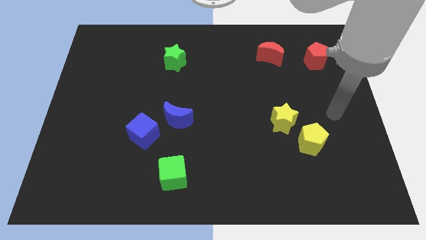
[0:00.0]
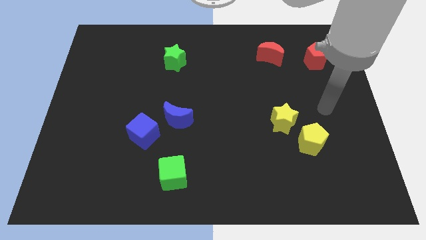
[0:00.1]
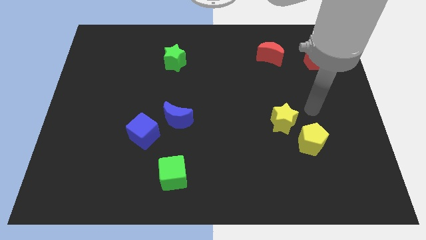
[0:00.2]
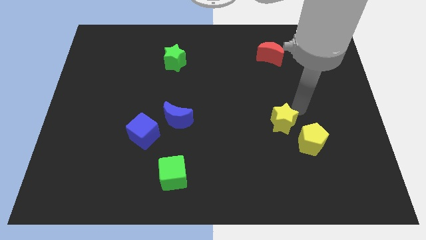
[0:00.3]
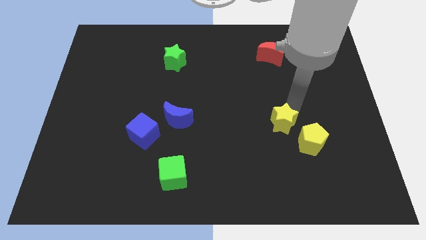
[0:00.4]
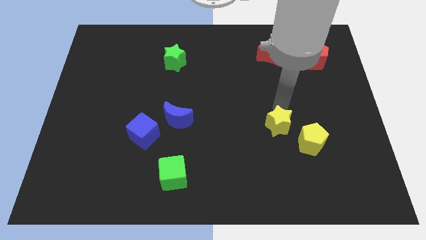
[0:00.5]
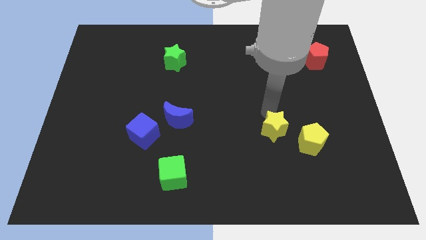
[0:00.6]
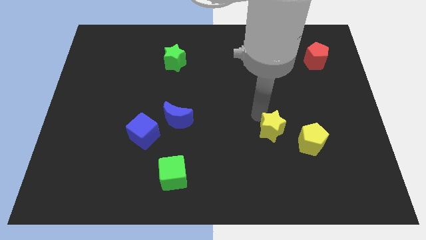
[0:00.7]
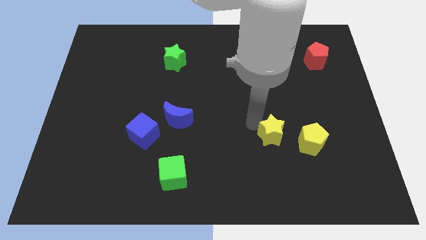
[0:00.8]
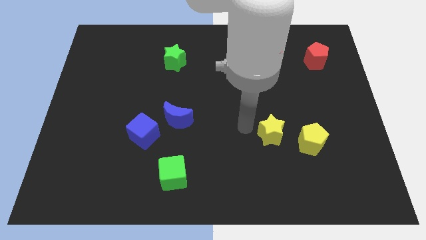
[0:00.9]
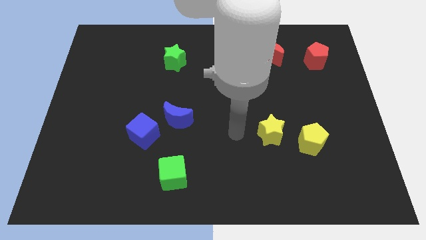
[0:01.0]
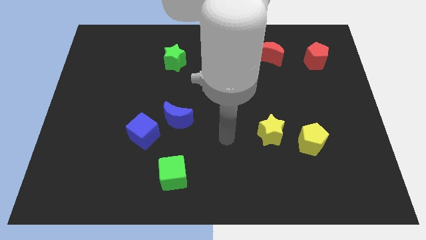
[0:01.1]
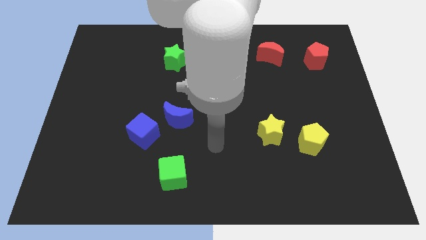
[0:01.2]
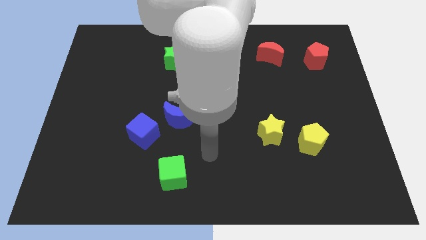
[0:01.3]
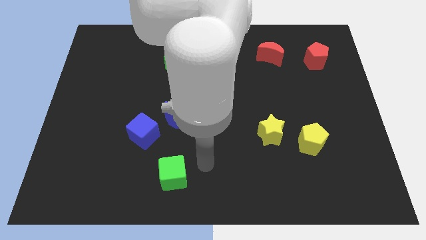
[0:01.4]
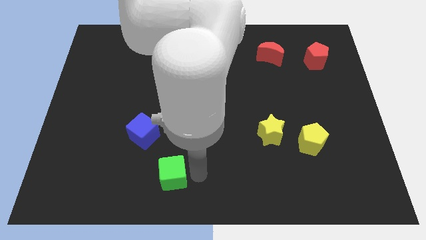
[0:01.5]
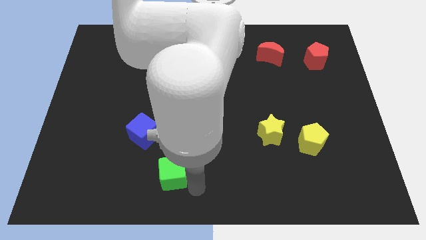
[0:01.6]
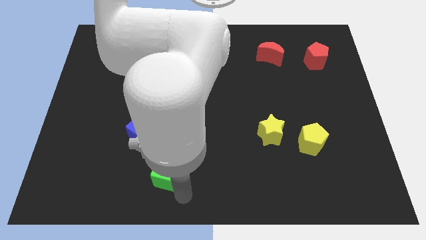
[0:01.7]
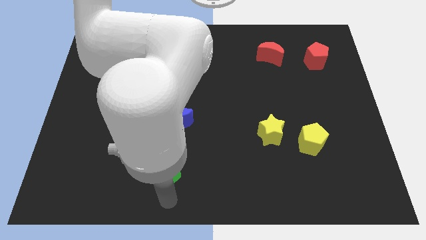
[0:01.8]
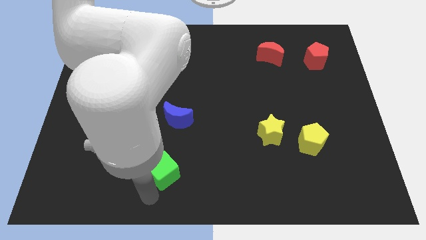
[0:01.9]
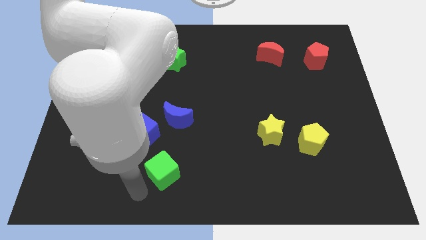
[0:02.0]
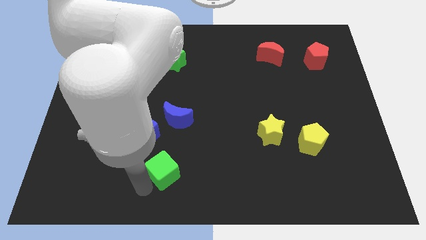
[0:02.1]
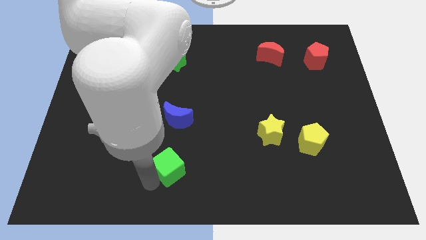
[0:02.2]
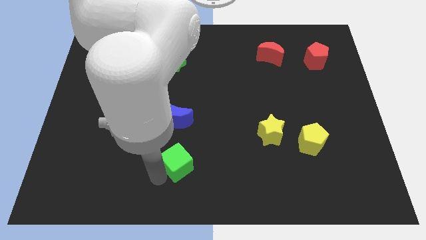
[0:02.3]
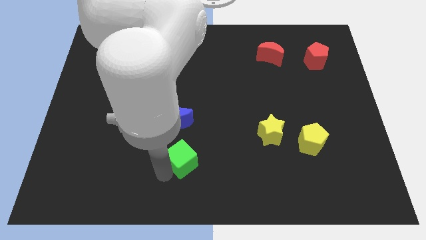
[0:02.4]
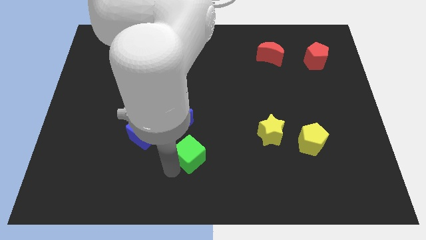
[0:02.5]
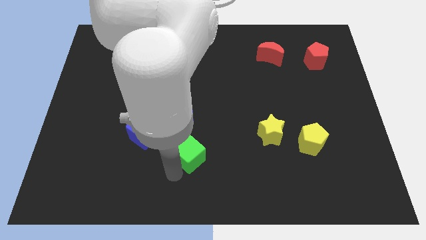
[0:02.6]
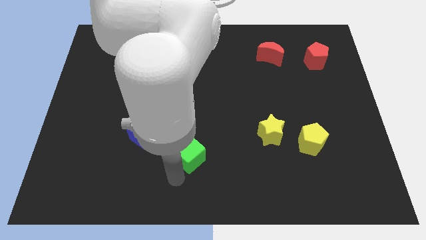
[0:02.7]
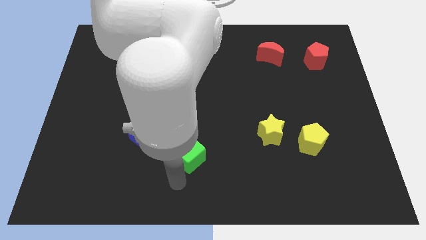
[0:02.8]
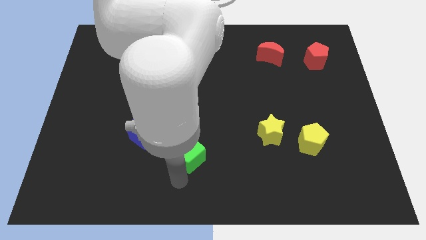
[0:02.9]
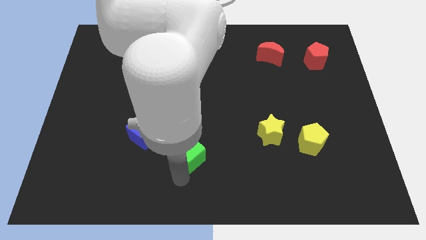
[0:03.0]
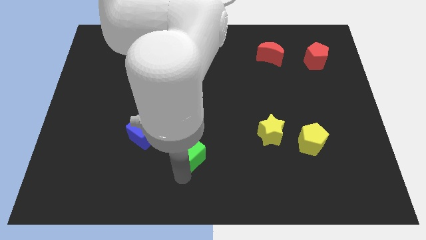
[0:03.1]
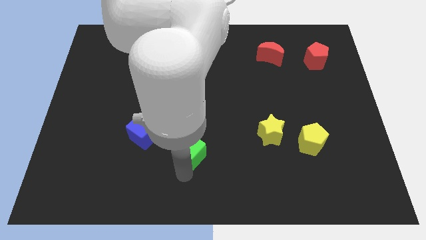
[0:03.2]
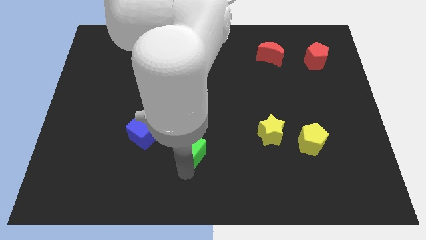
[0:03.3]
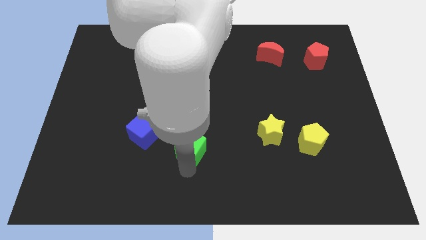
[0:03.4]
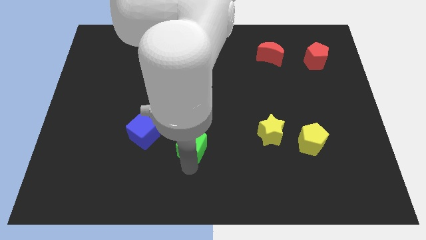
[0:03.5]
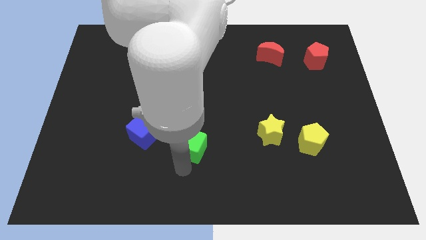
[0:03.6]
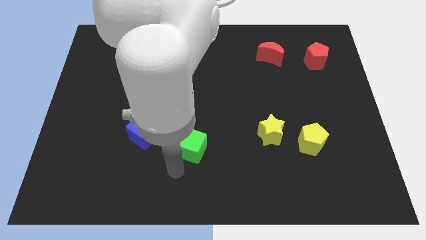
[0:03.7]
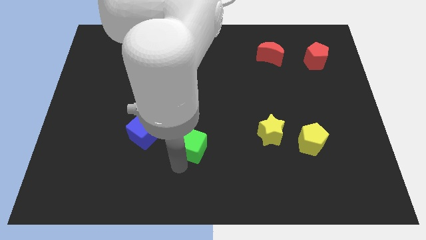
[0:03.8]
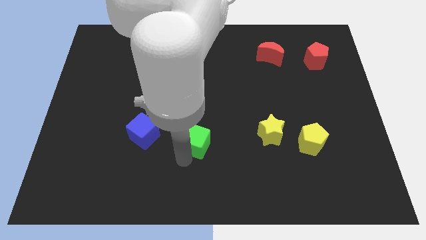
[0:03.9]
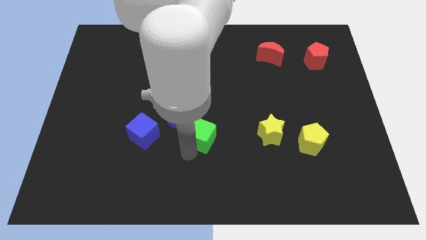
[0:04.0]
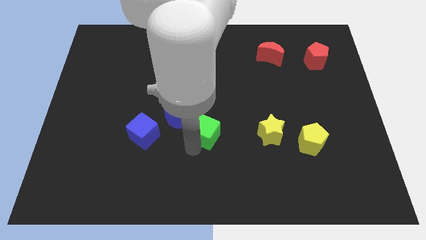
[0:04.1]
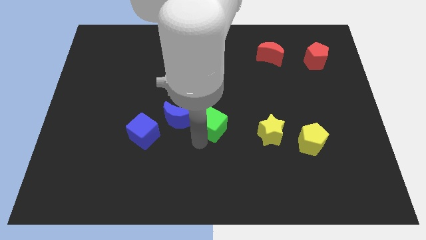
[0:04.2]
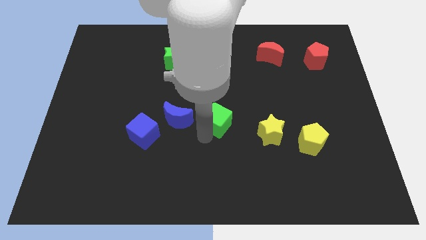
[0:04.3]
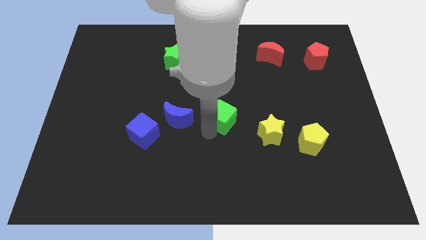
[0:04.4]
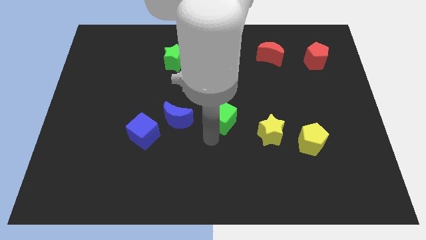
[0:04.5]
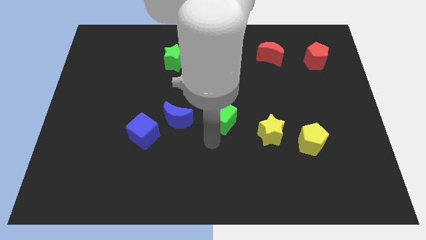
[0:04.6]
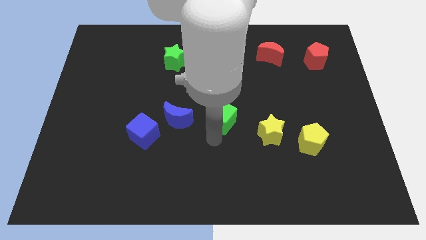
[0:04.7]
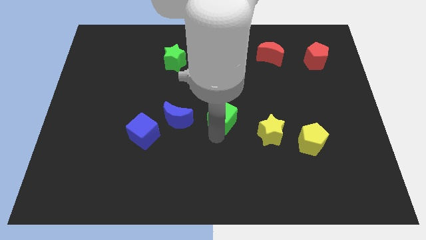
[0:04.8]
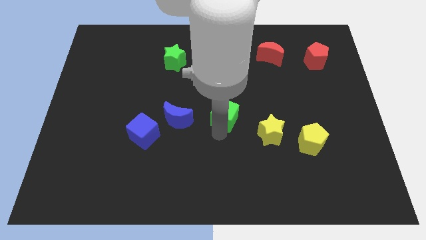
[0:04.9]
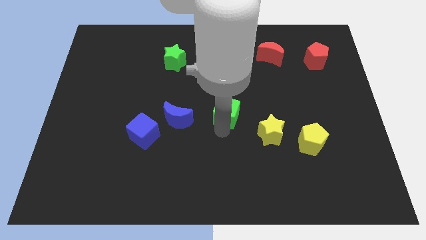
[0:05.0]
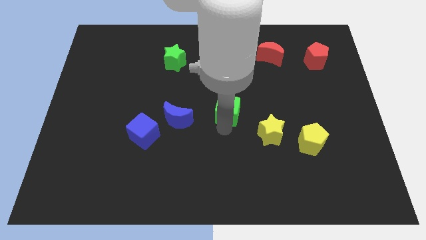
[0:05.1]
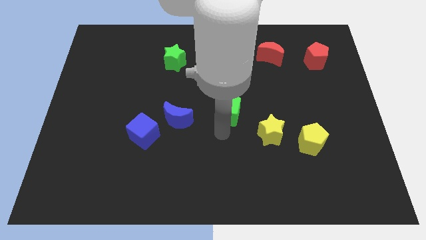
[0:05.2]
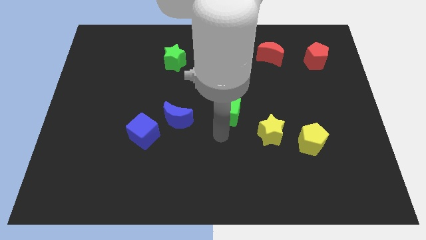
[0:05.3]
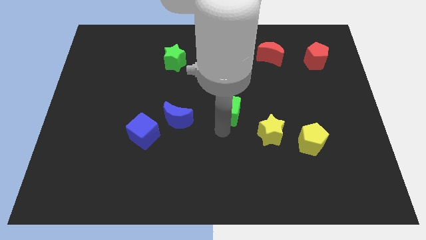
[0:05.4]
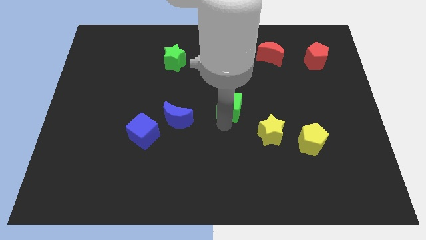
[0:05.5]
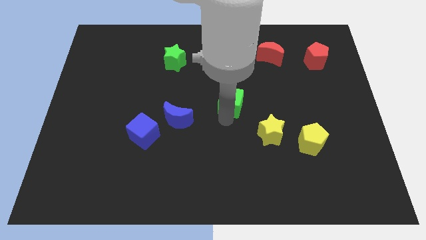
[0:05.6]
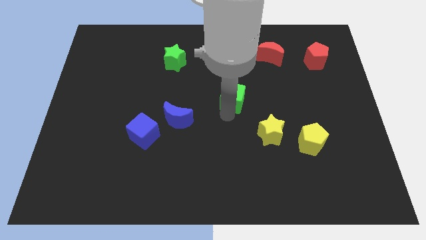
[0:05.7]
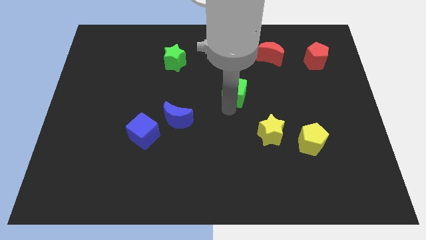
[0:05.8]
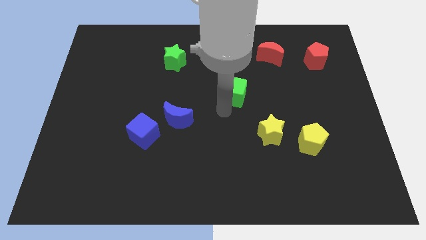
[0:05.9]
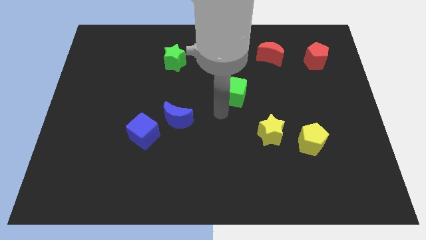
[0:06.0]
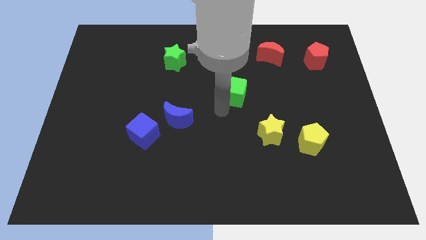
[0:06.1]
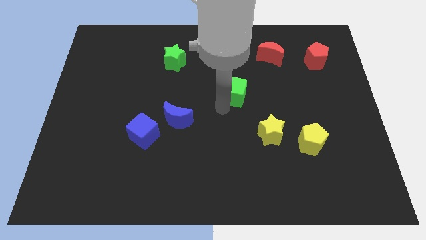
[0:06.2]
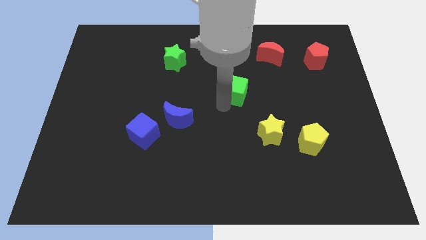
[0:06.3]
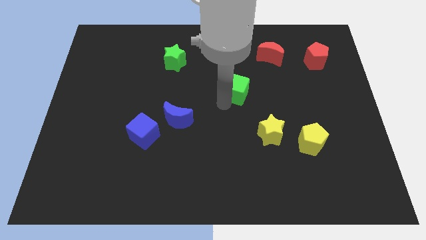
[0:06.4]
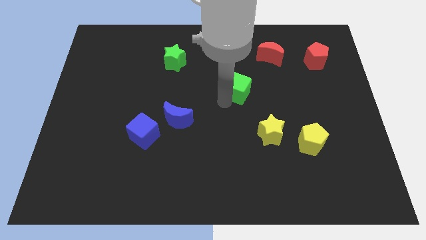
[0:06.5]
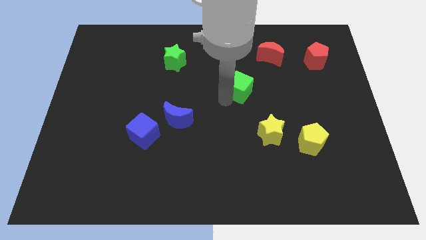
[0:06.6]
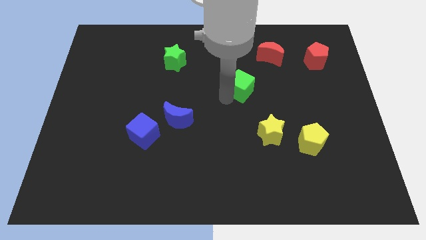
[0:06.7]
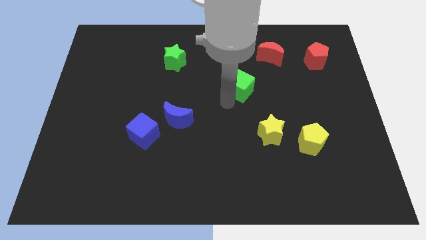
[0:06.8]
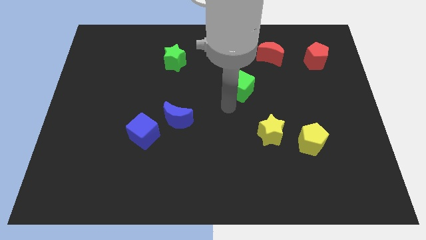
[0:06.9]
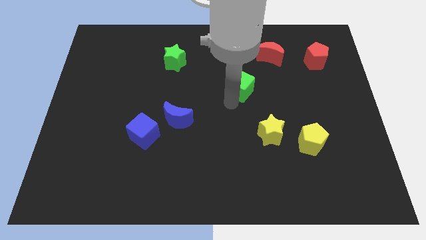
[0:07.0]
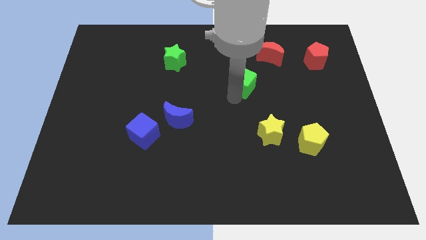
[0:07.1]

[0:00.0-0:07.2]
put the green cube to the bottom left of the red moon
